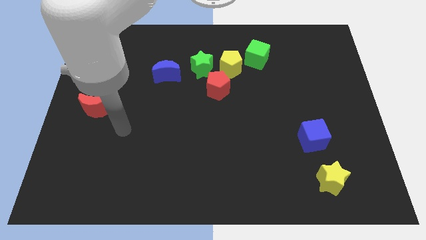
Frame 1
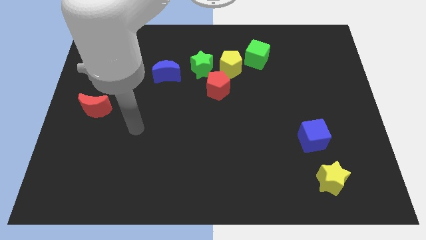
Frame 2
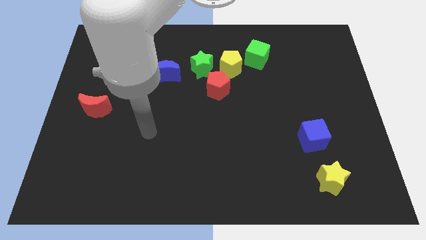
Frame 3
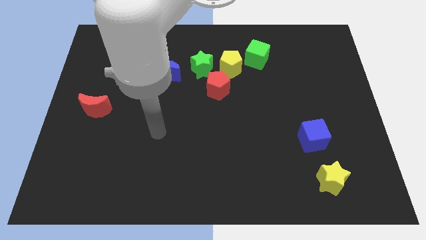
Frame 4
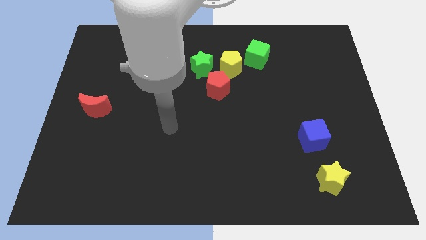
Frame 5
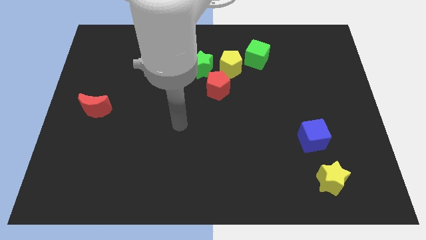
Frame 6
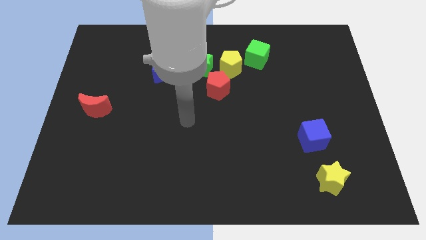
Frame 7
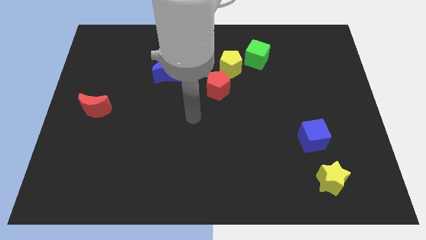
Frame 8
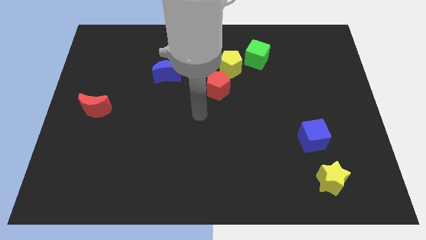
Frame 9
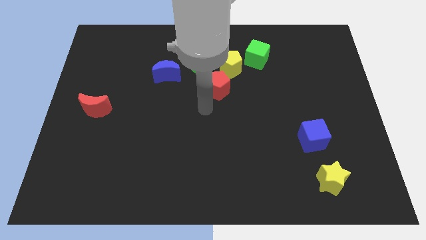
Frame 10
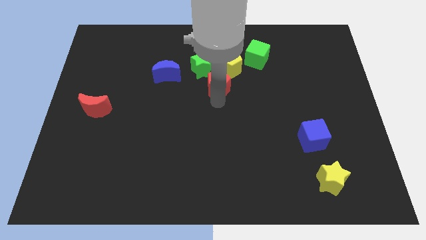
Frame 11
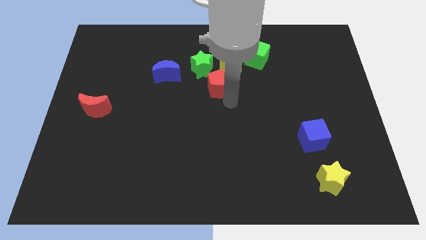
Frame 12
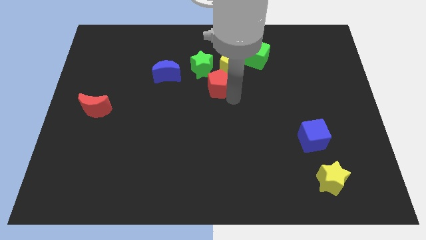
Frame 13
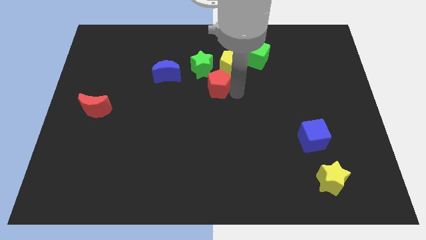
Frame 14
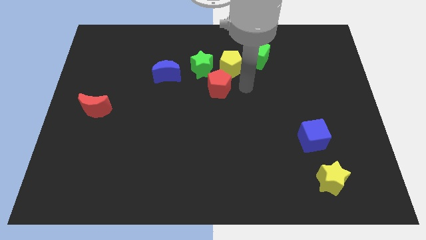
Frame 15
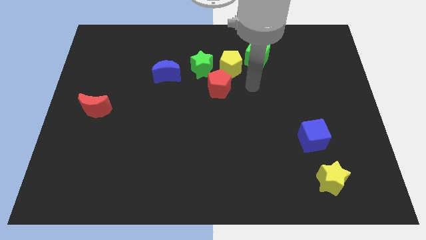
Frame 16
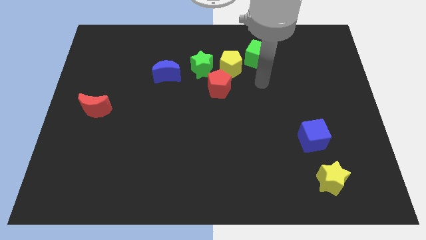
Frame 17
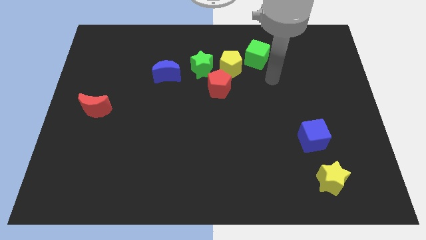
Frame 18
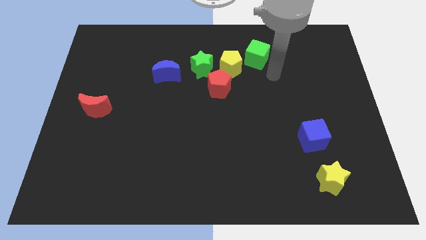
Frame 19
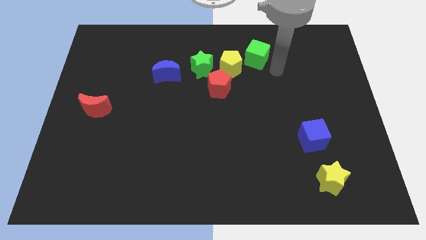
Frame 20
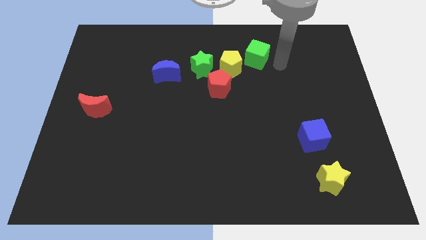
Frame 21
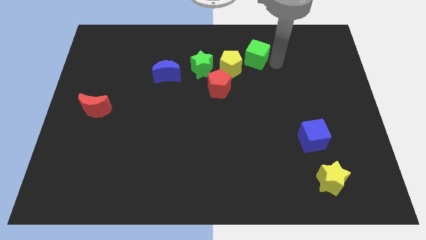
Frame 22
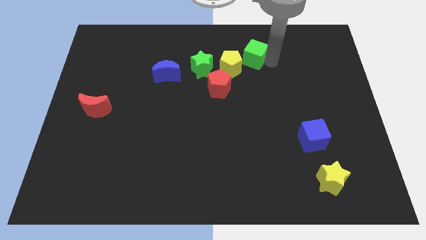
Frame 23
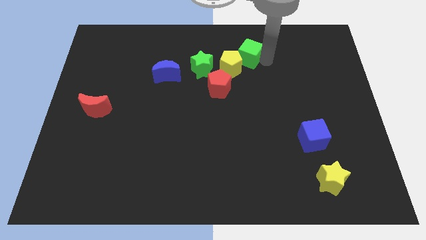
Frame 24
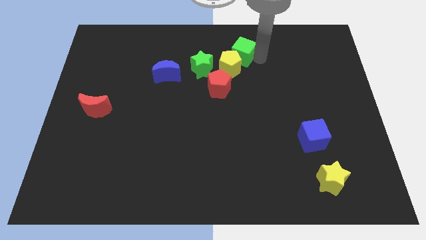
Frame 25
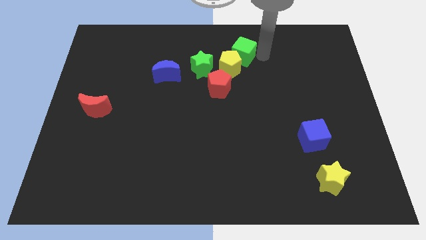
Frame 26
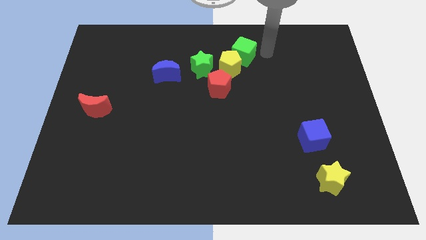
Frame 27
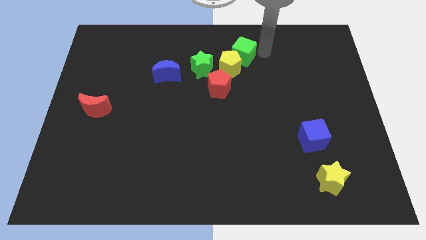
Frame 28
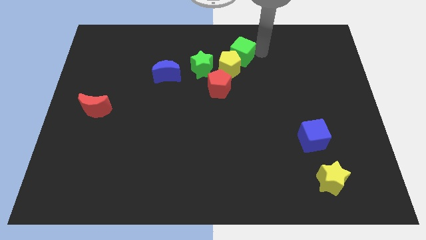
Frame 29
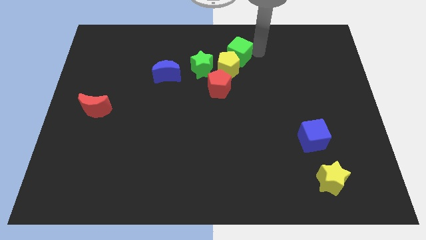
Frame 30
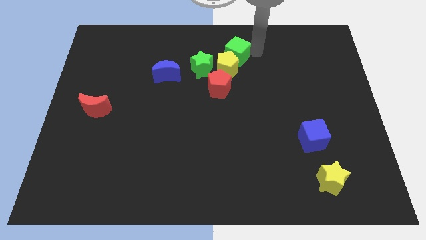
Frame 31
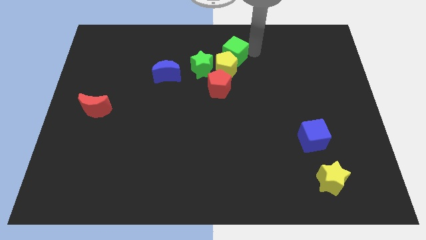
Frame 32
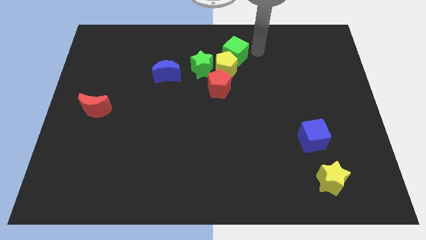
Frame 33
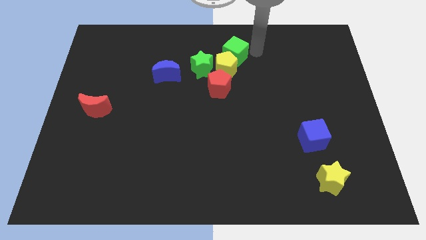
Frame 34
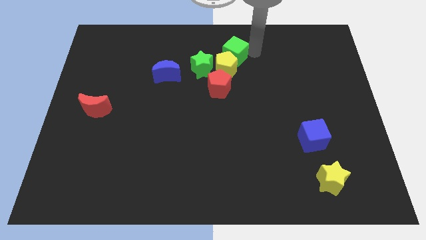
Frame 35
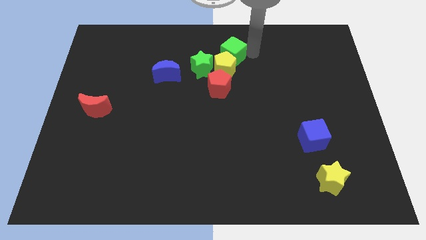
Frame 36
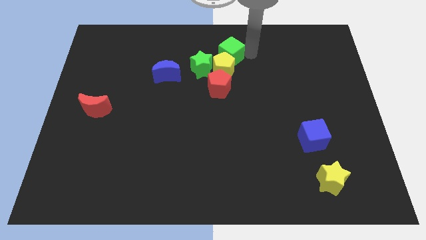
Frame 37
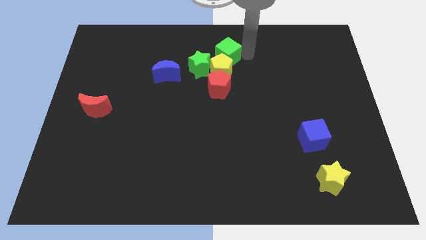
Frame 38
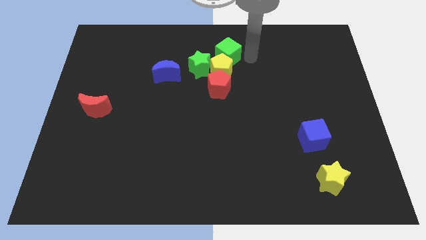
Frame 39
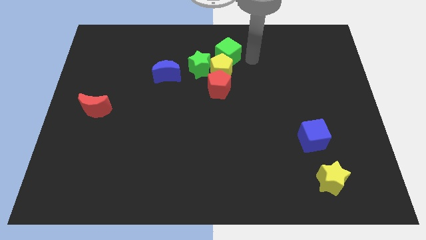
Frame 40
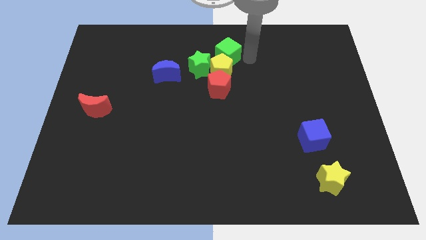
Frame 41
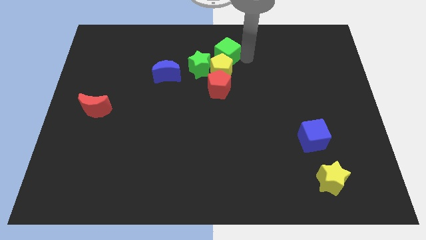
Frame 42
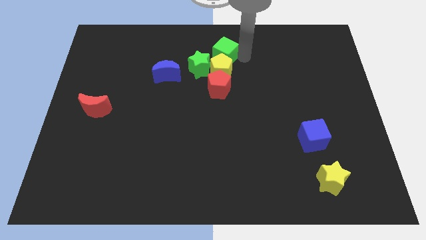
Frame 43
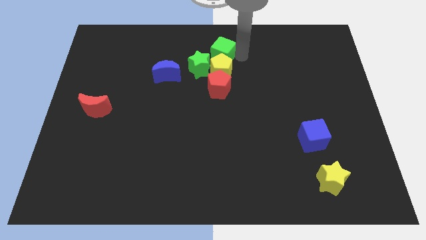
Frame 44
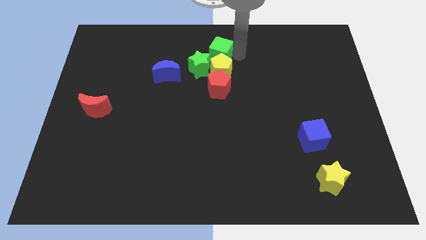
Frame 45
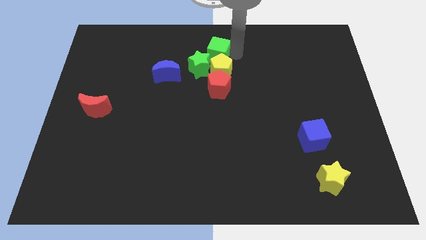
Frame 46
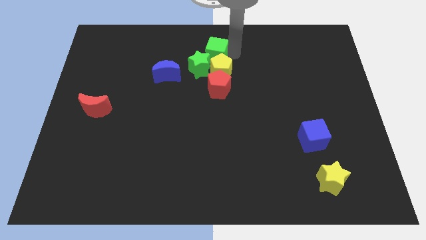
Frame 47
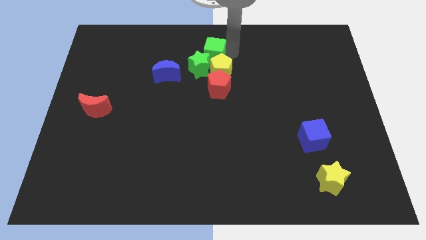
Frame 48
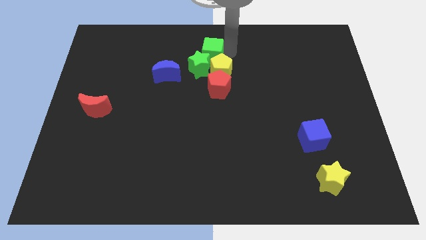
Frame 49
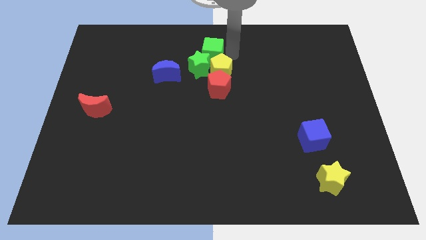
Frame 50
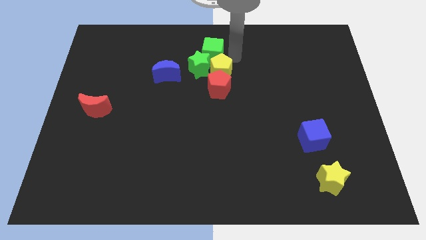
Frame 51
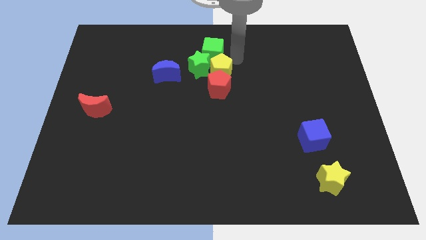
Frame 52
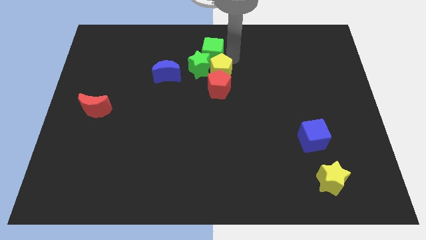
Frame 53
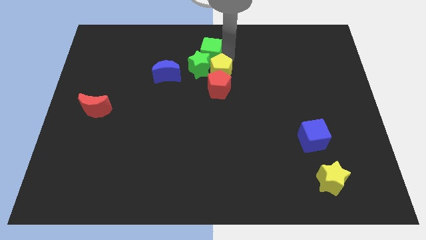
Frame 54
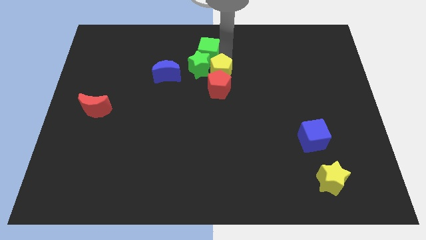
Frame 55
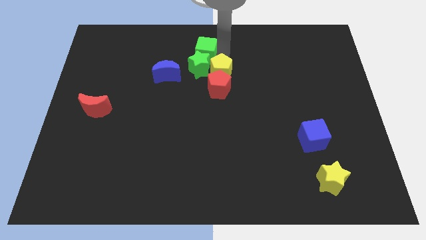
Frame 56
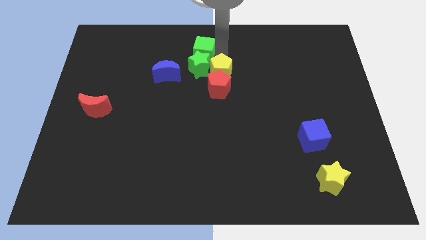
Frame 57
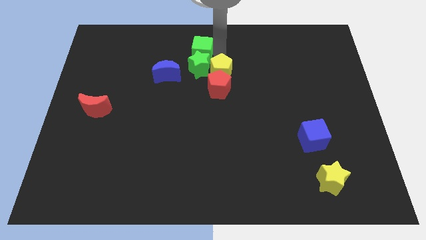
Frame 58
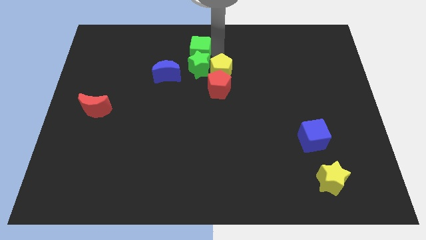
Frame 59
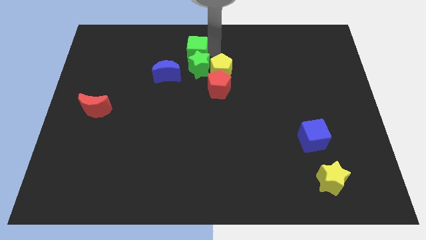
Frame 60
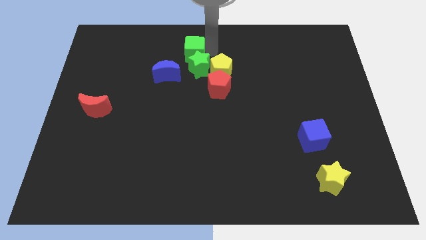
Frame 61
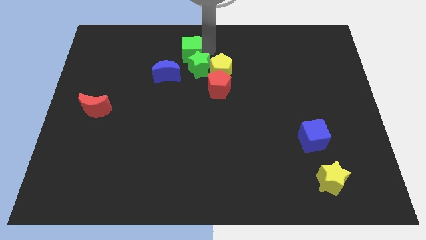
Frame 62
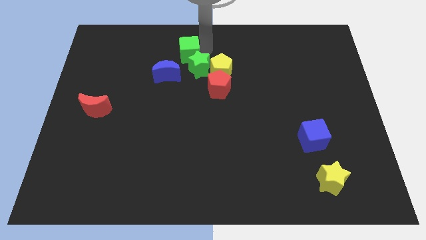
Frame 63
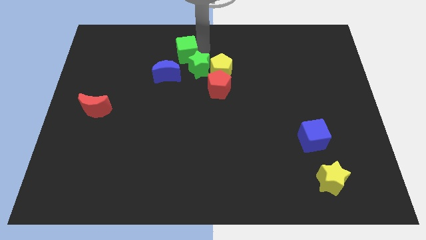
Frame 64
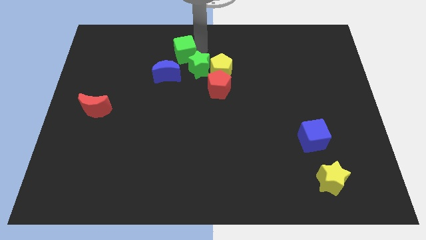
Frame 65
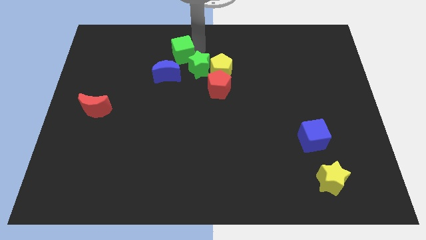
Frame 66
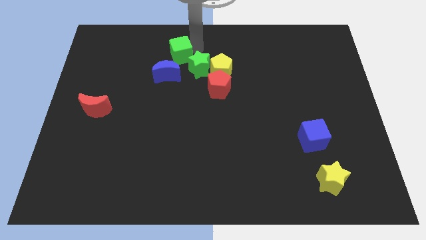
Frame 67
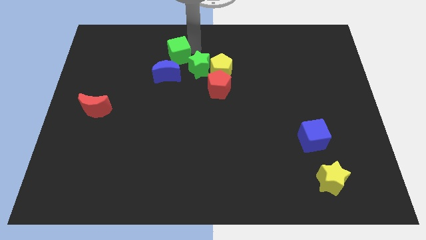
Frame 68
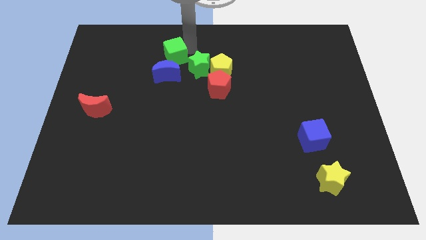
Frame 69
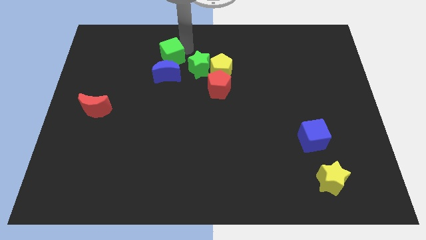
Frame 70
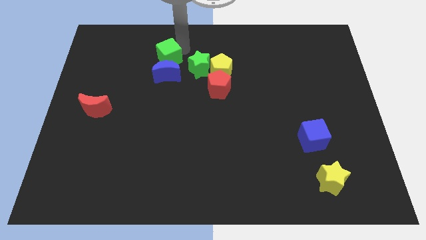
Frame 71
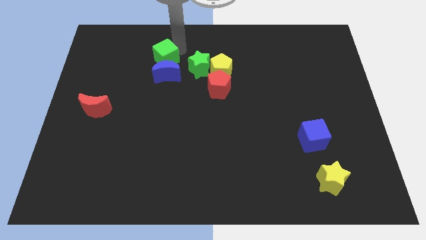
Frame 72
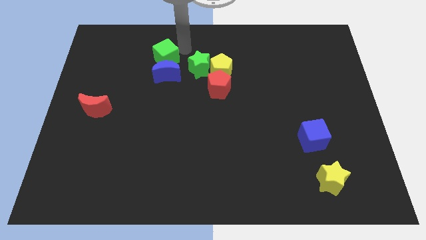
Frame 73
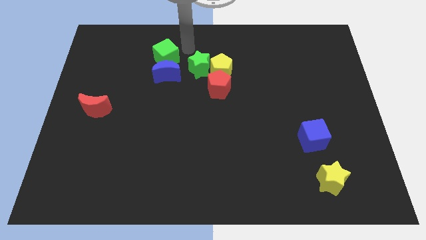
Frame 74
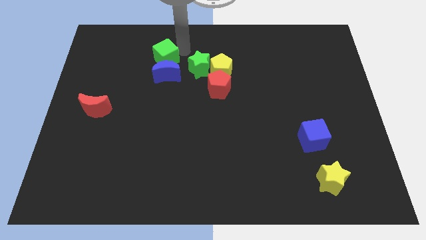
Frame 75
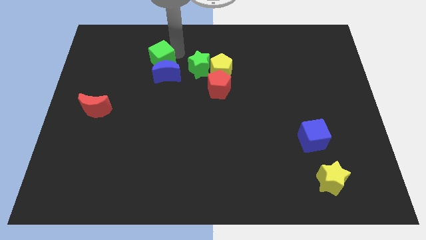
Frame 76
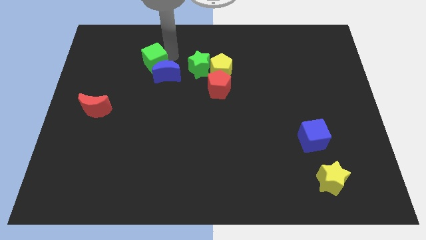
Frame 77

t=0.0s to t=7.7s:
move the green cube left of the blue moon
